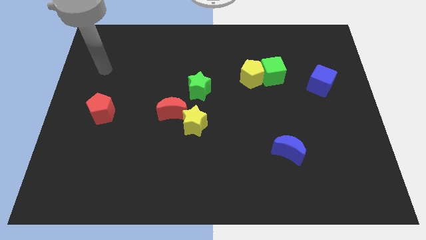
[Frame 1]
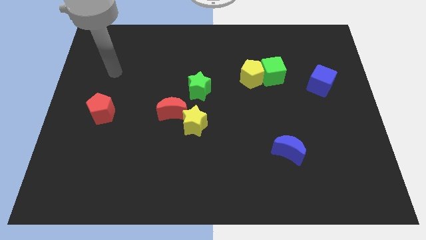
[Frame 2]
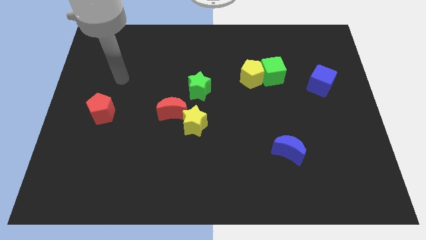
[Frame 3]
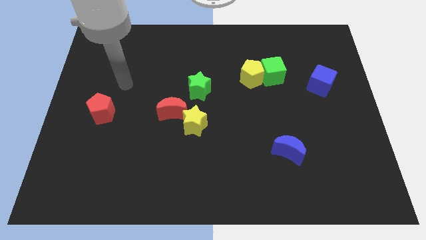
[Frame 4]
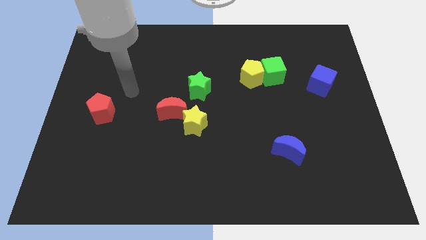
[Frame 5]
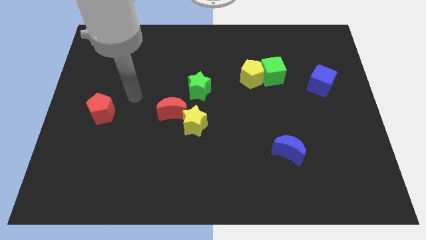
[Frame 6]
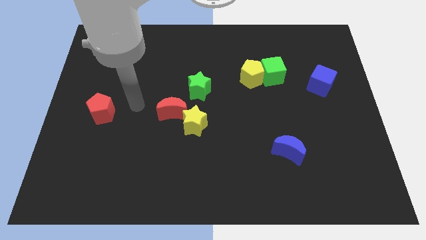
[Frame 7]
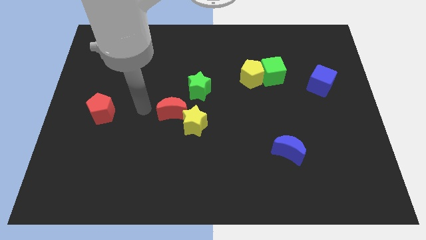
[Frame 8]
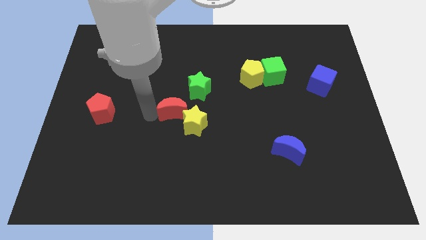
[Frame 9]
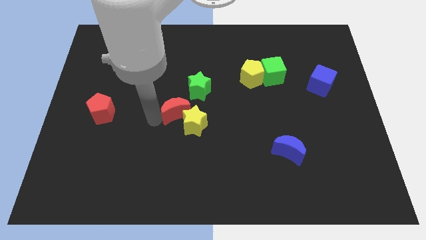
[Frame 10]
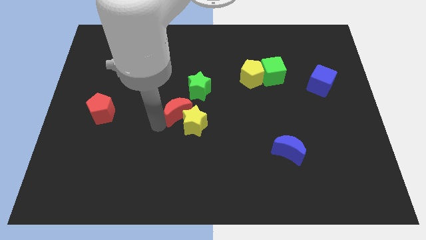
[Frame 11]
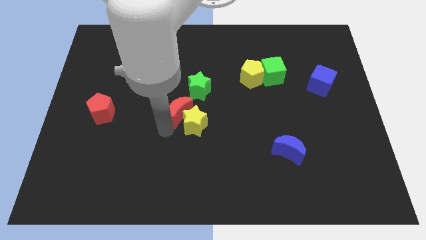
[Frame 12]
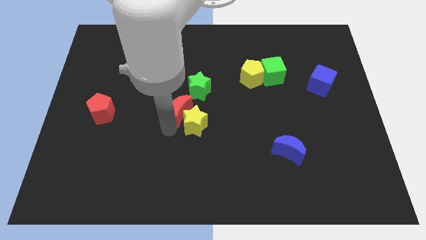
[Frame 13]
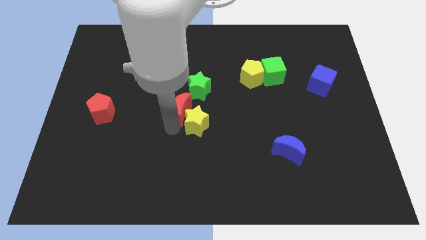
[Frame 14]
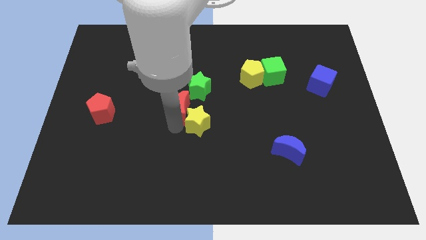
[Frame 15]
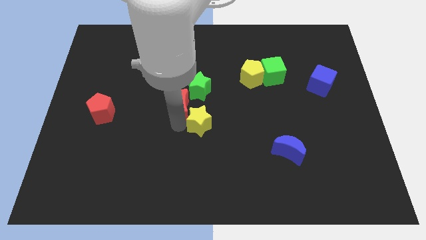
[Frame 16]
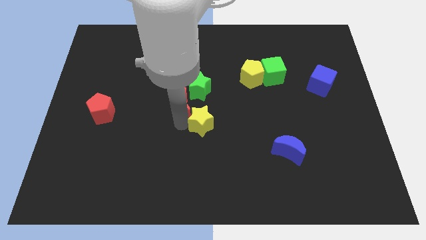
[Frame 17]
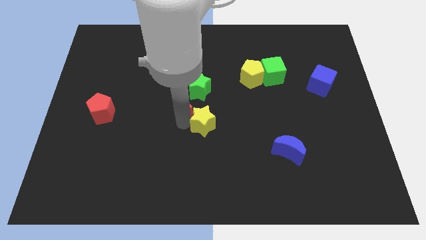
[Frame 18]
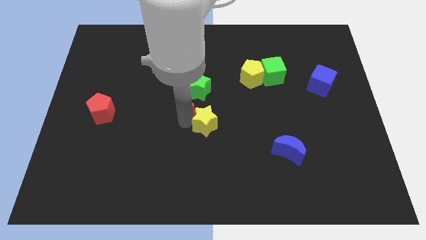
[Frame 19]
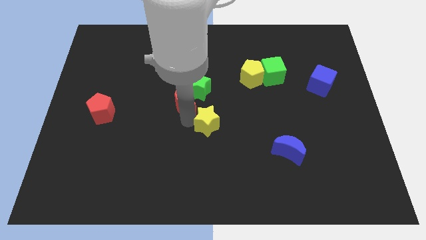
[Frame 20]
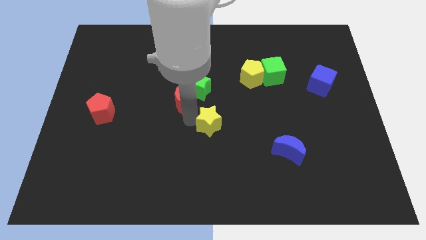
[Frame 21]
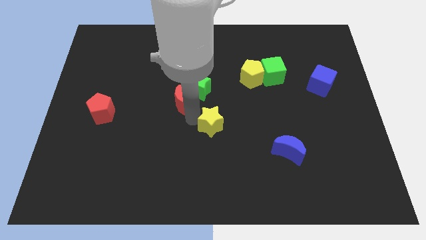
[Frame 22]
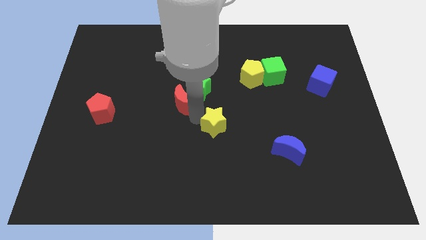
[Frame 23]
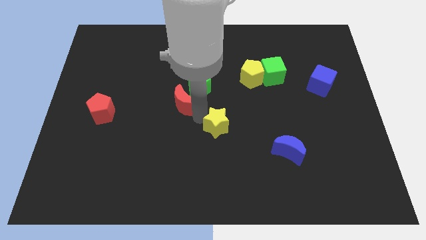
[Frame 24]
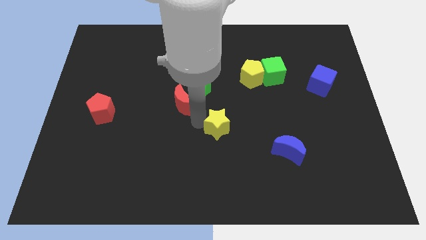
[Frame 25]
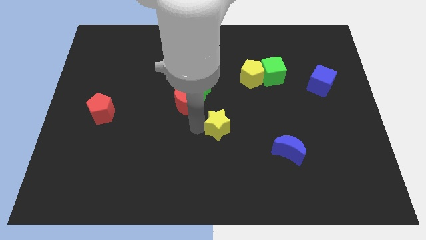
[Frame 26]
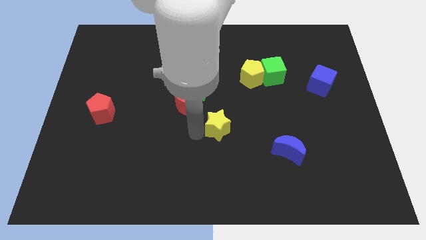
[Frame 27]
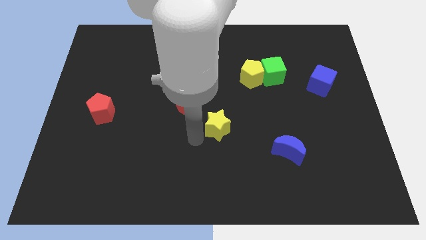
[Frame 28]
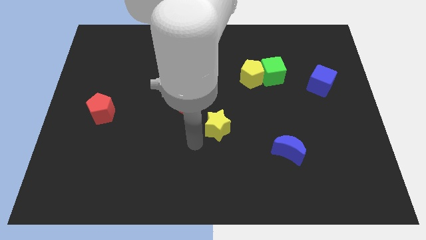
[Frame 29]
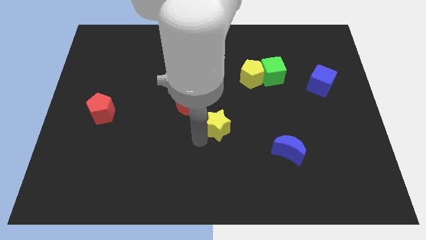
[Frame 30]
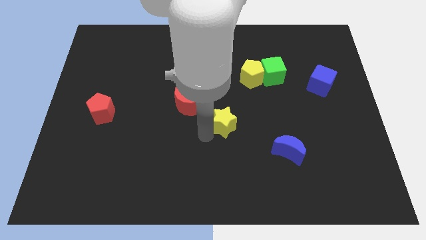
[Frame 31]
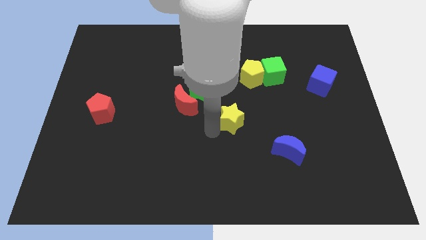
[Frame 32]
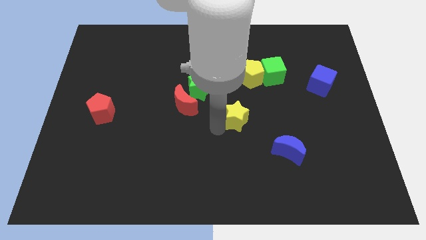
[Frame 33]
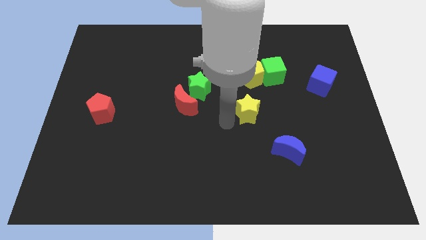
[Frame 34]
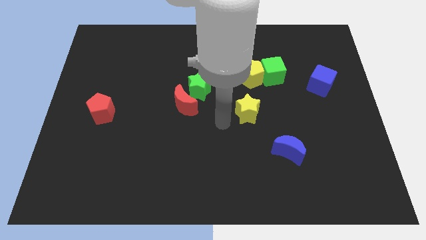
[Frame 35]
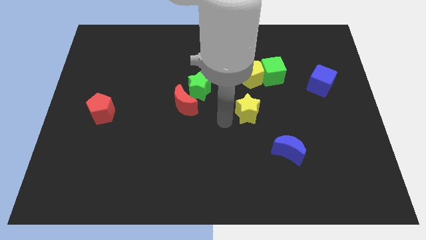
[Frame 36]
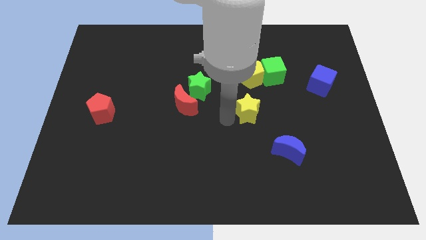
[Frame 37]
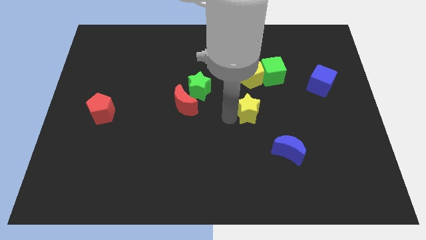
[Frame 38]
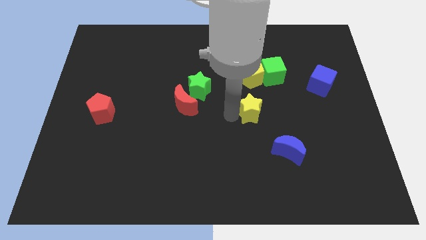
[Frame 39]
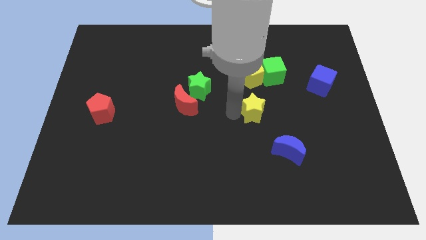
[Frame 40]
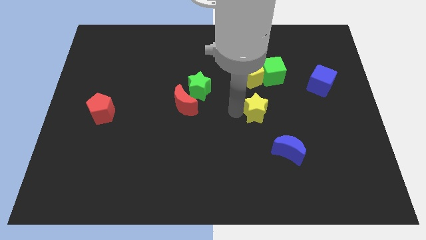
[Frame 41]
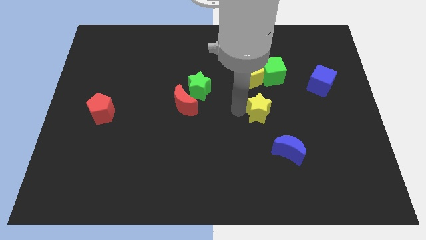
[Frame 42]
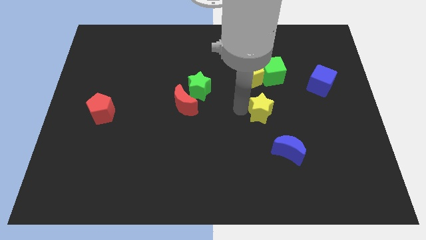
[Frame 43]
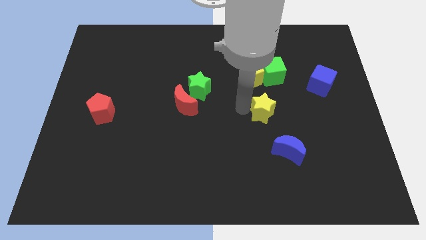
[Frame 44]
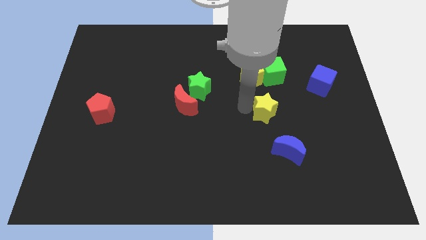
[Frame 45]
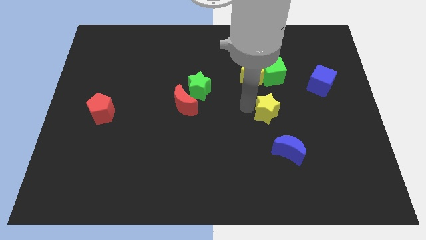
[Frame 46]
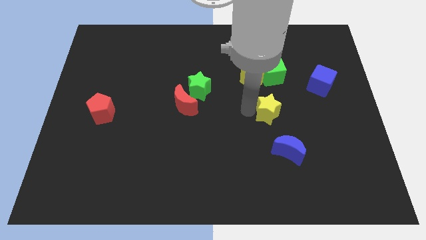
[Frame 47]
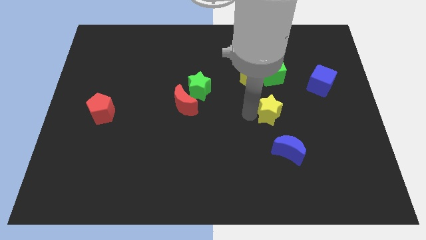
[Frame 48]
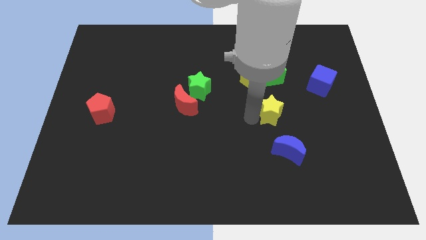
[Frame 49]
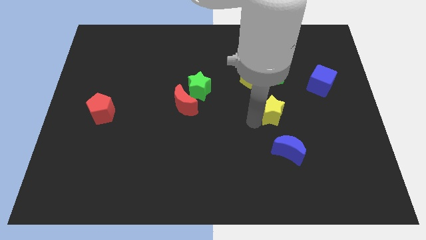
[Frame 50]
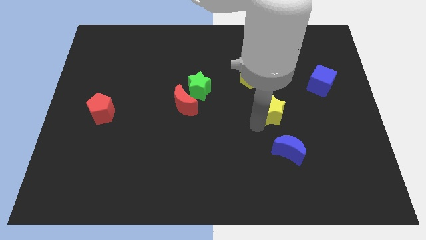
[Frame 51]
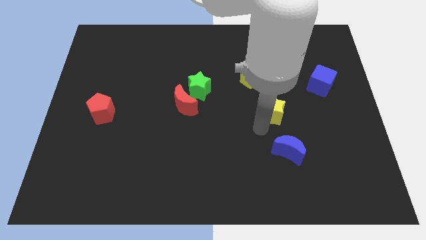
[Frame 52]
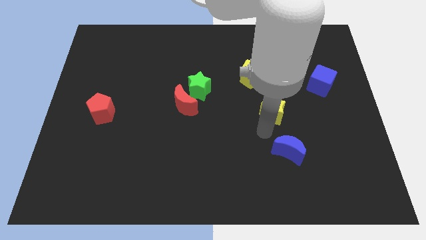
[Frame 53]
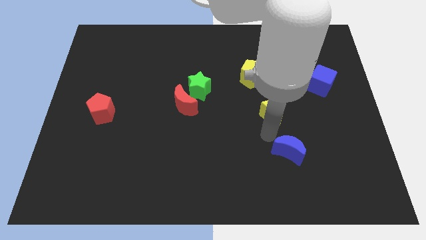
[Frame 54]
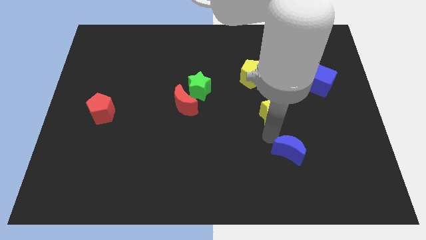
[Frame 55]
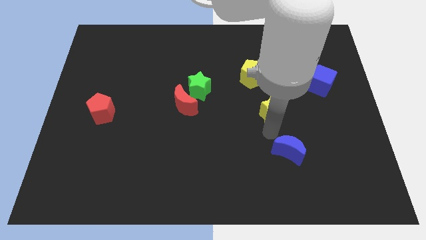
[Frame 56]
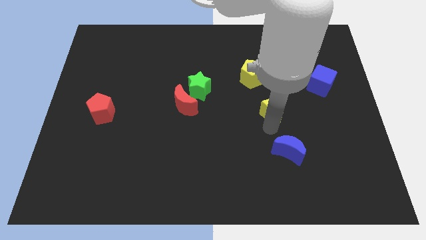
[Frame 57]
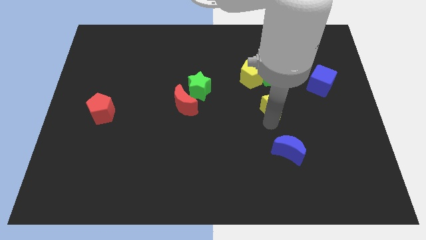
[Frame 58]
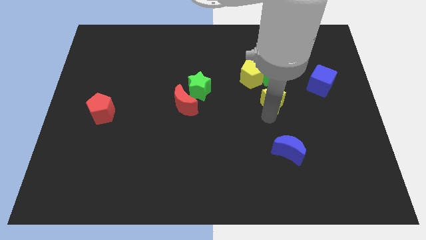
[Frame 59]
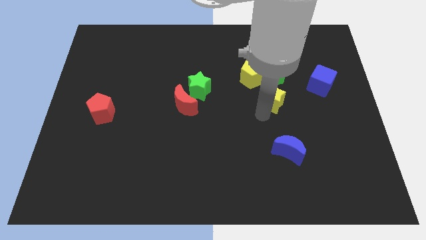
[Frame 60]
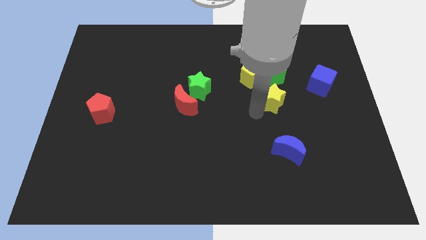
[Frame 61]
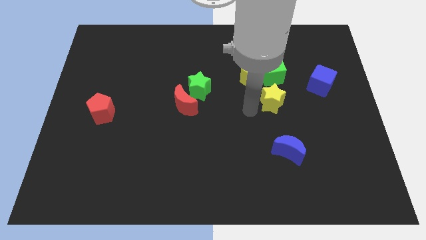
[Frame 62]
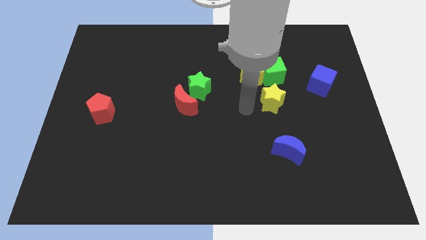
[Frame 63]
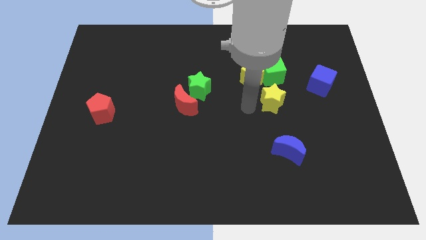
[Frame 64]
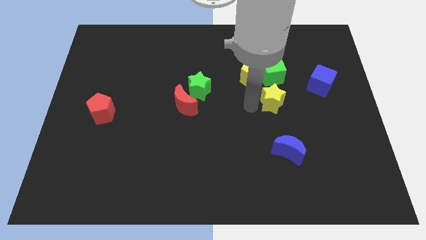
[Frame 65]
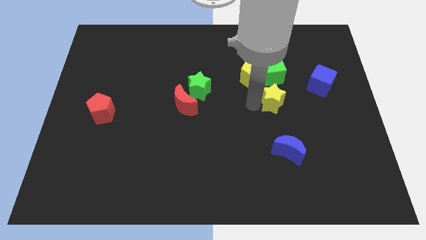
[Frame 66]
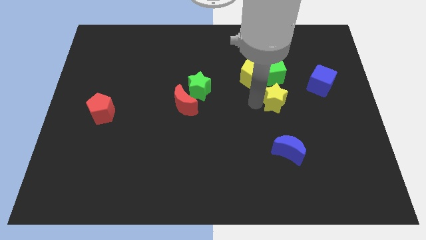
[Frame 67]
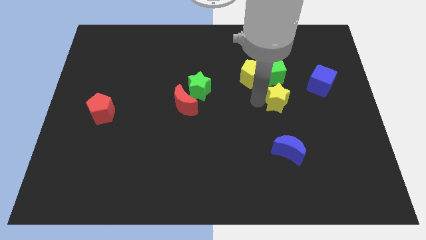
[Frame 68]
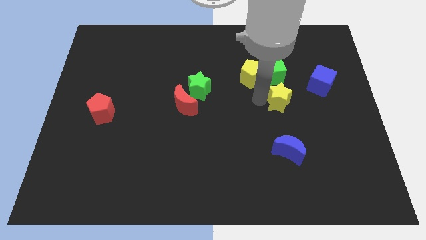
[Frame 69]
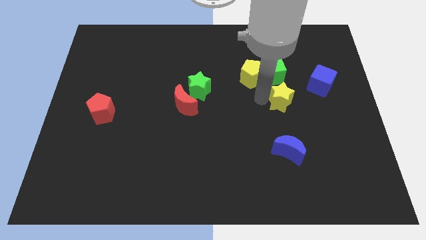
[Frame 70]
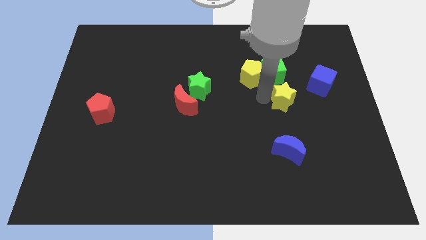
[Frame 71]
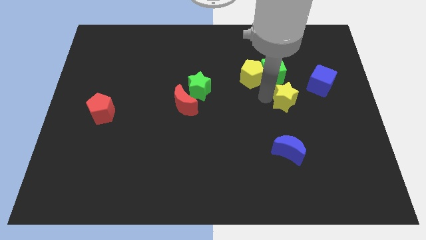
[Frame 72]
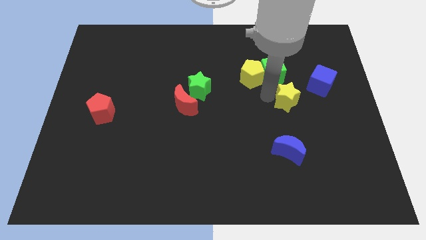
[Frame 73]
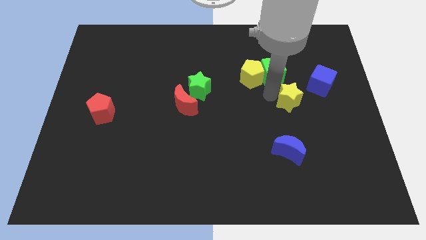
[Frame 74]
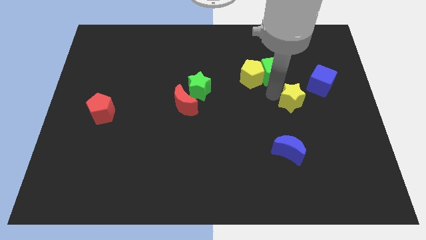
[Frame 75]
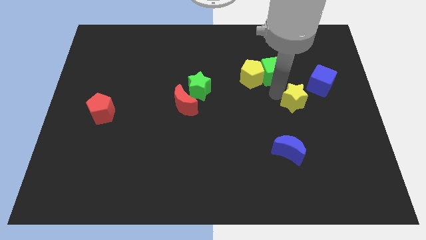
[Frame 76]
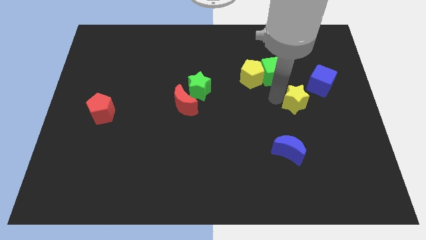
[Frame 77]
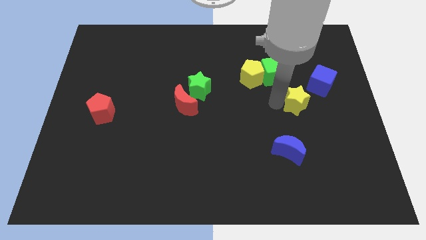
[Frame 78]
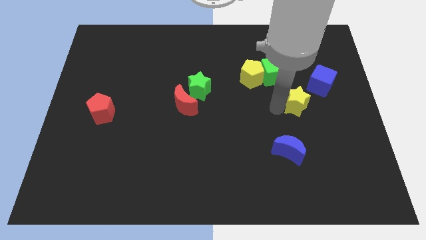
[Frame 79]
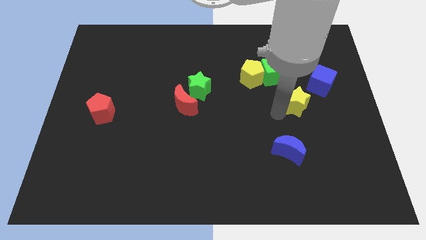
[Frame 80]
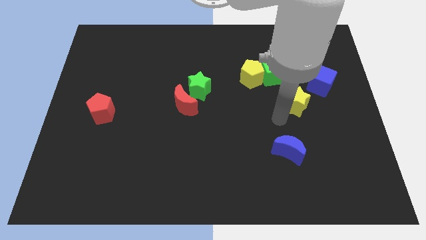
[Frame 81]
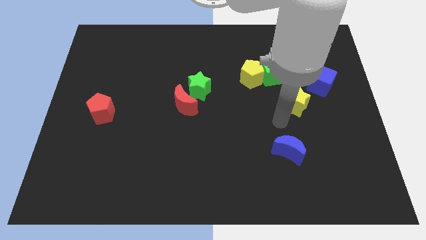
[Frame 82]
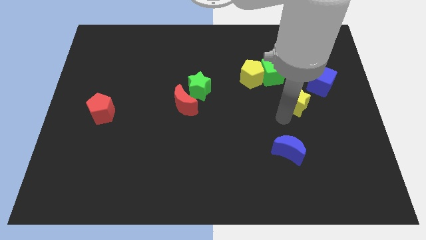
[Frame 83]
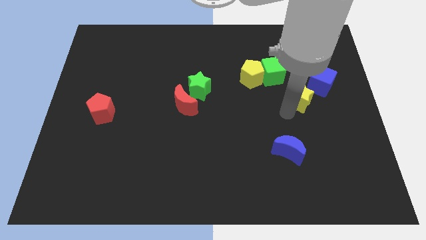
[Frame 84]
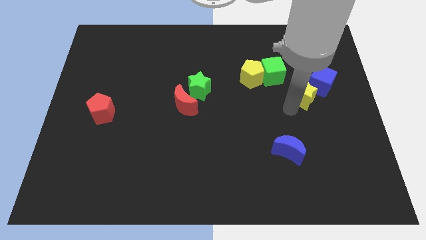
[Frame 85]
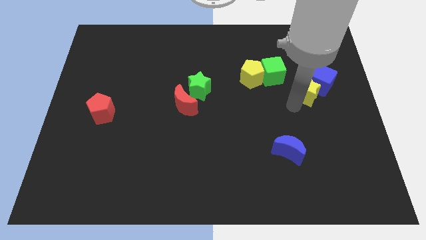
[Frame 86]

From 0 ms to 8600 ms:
move the yellow star close to the blue cube
